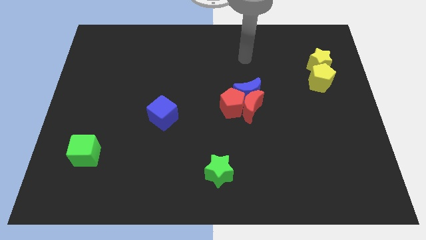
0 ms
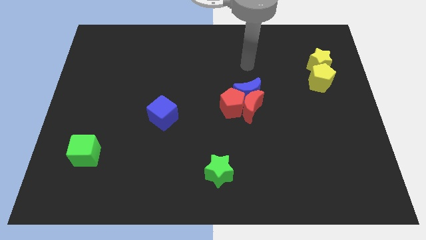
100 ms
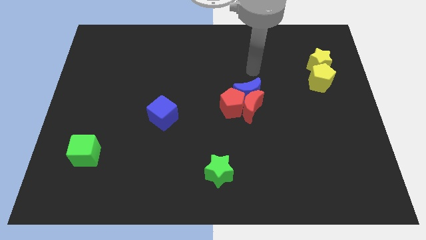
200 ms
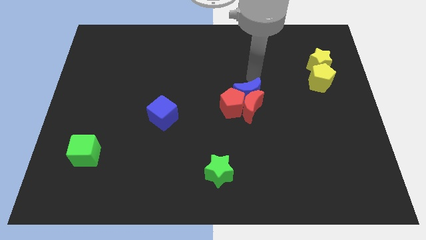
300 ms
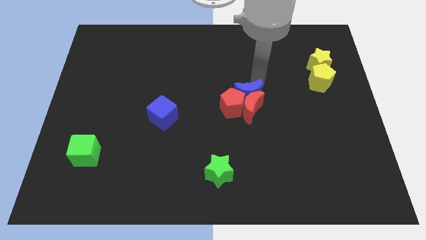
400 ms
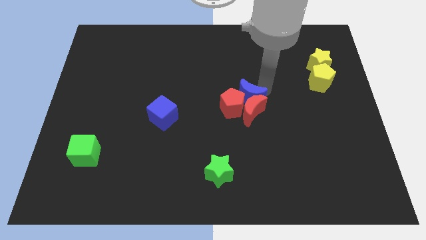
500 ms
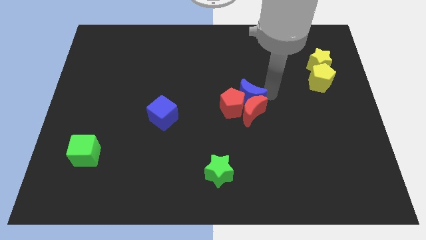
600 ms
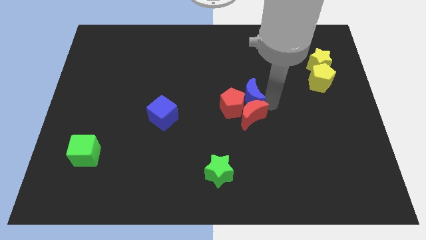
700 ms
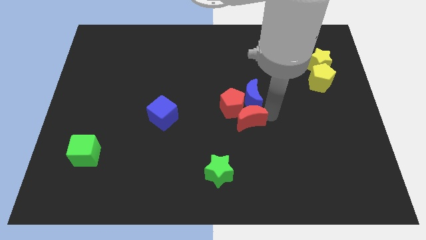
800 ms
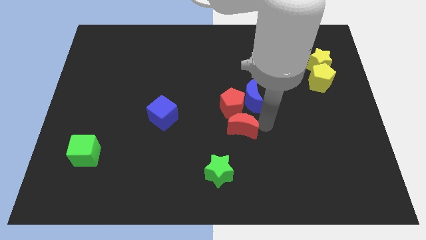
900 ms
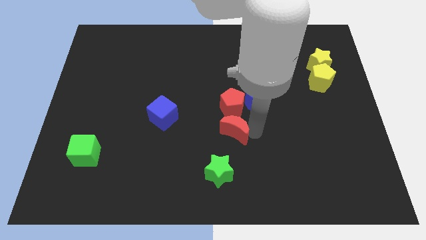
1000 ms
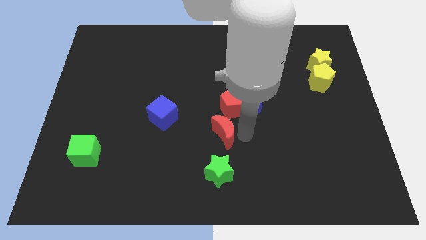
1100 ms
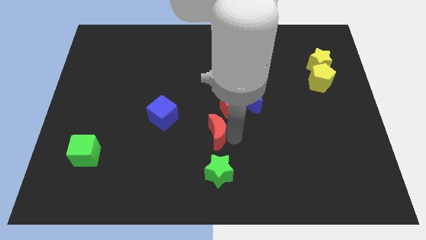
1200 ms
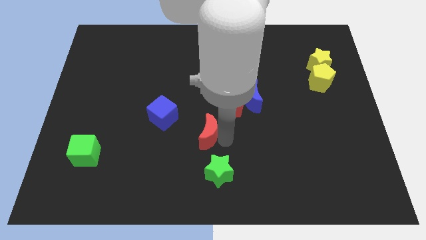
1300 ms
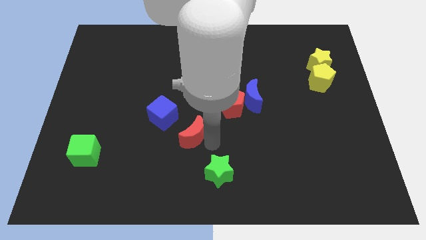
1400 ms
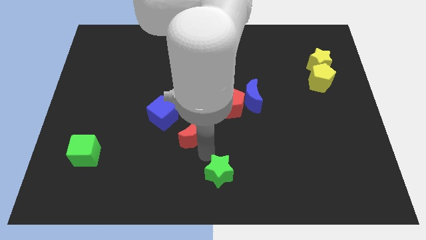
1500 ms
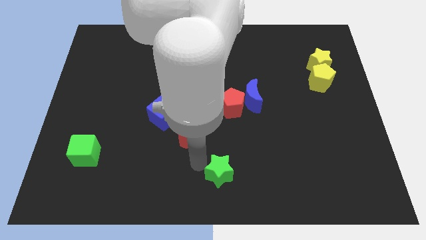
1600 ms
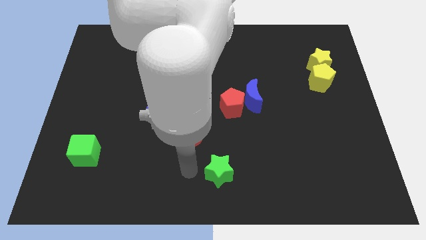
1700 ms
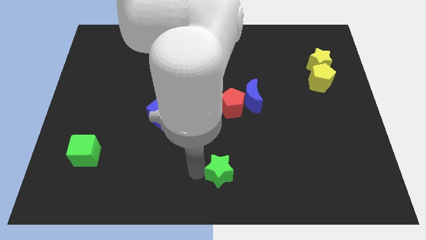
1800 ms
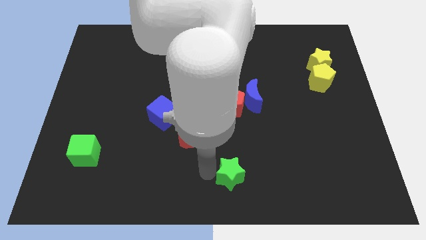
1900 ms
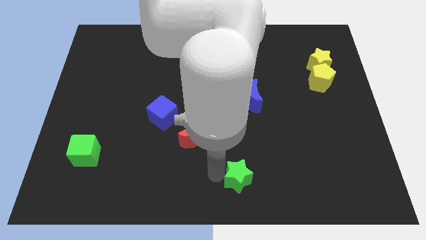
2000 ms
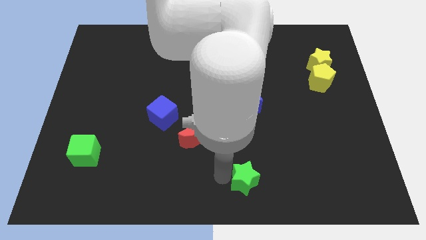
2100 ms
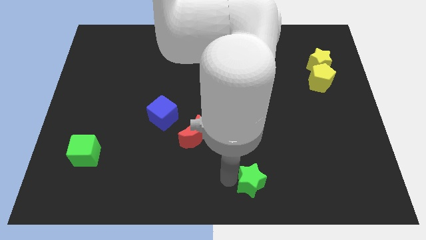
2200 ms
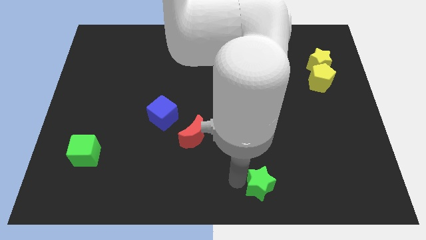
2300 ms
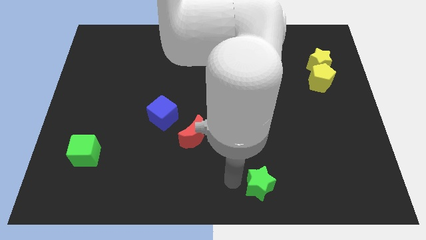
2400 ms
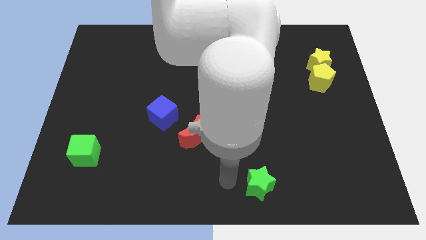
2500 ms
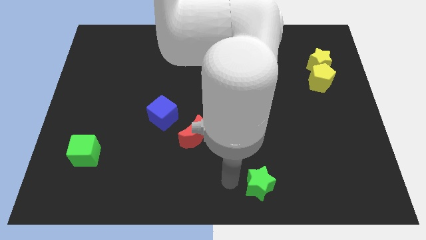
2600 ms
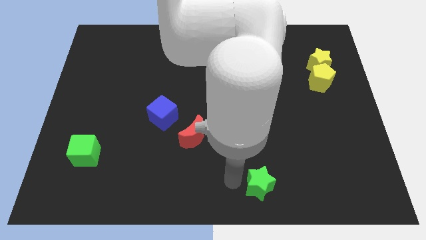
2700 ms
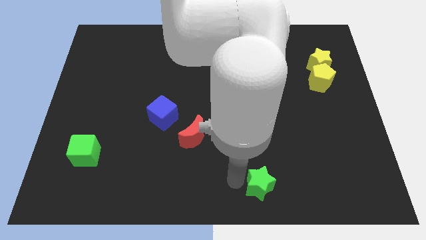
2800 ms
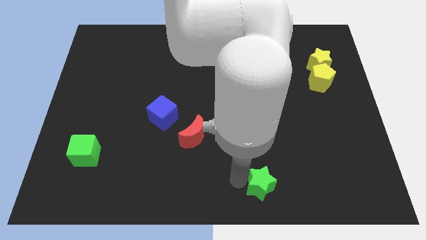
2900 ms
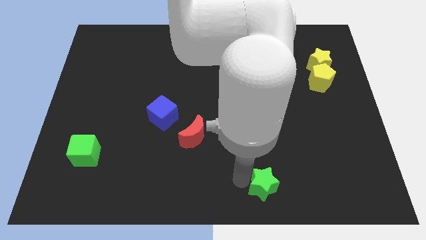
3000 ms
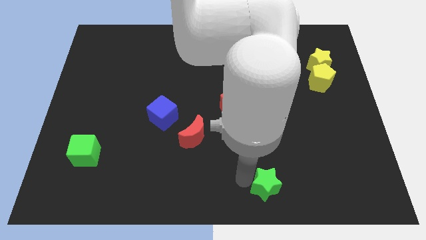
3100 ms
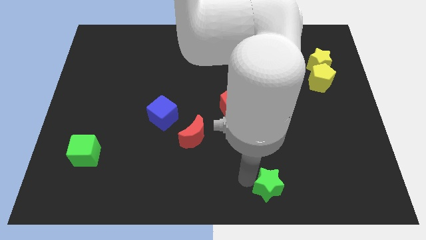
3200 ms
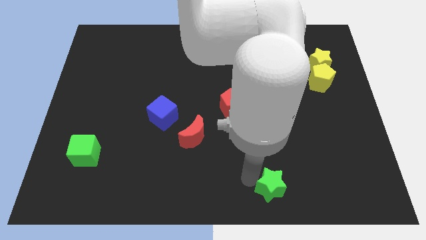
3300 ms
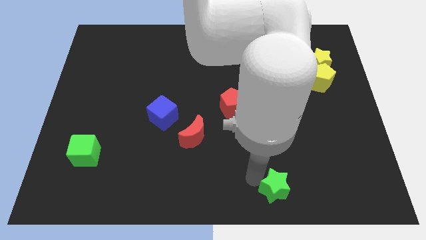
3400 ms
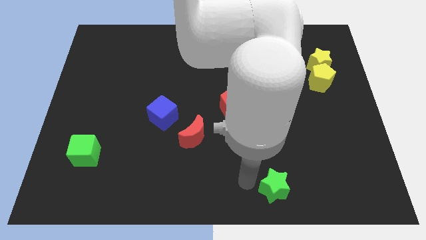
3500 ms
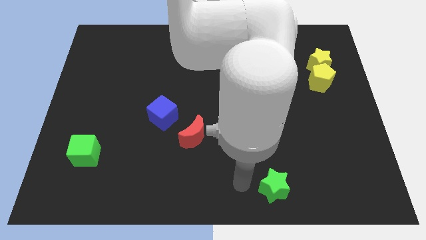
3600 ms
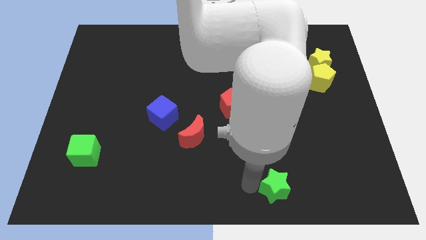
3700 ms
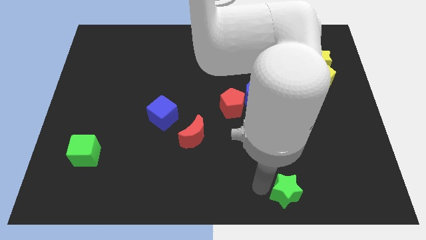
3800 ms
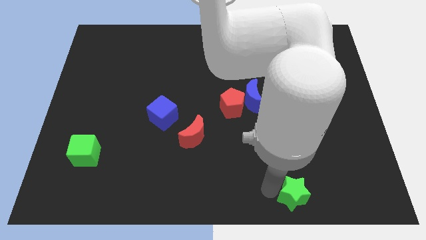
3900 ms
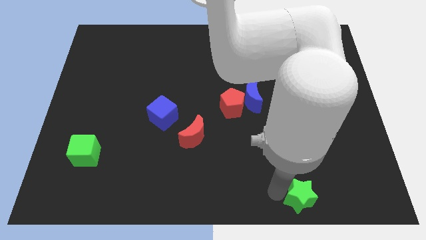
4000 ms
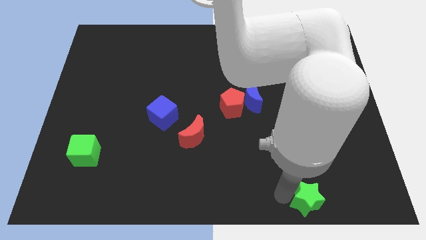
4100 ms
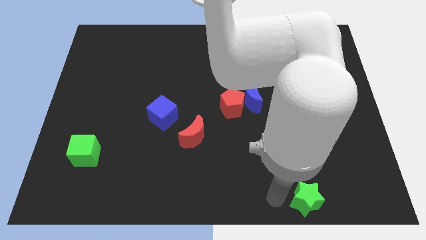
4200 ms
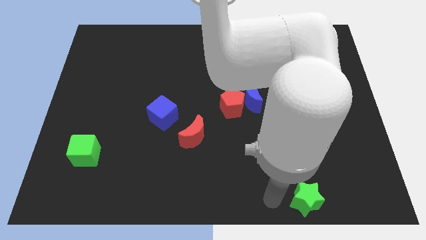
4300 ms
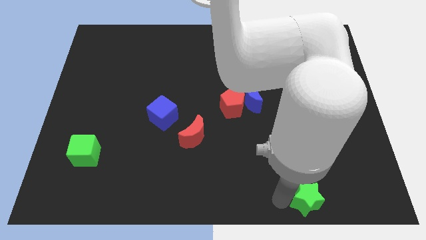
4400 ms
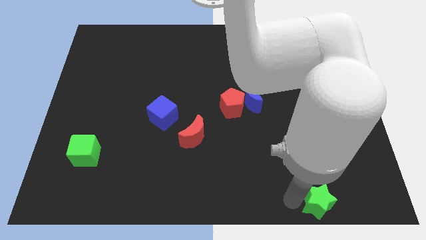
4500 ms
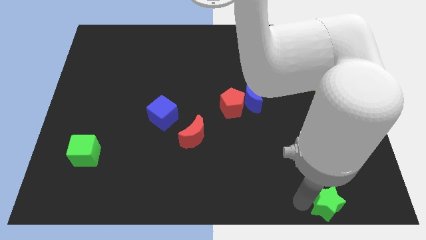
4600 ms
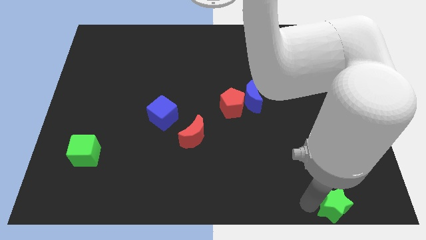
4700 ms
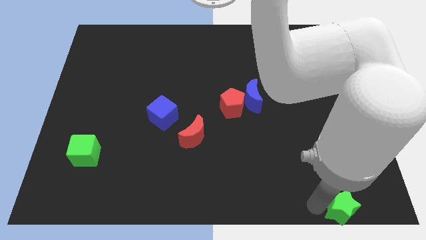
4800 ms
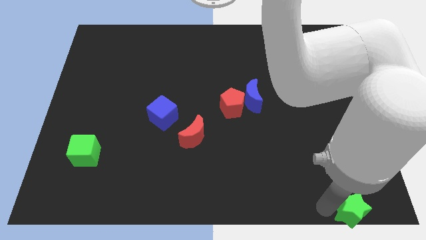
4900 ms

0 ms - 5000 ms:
push the green star to the lower right corner

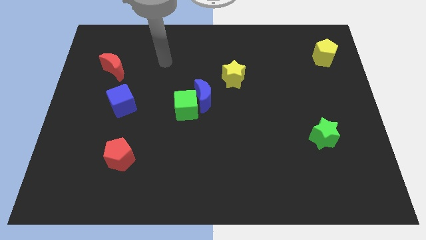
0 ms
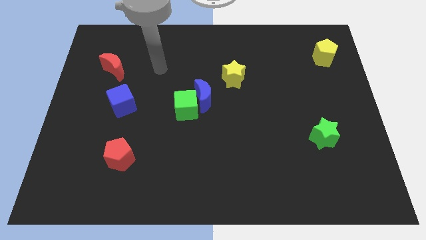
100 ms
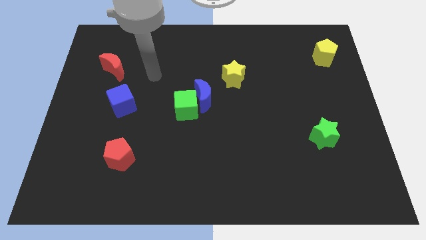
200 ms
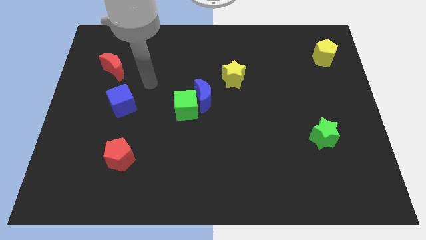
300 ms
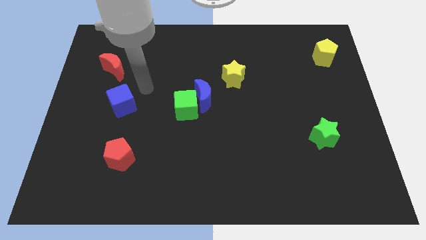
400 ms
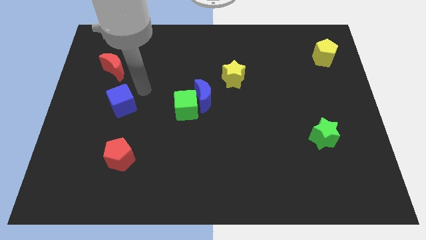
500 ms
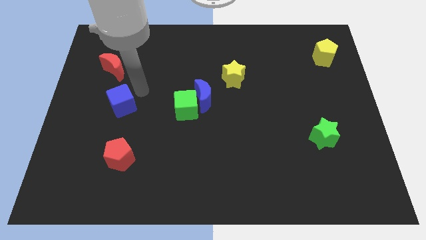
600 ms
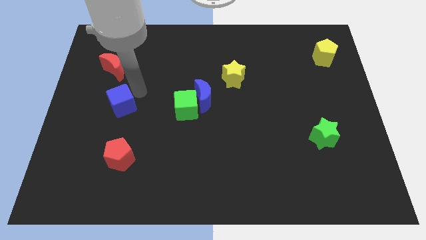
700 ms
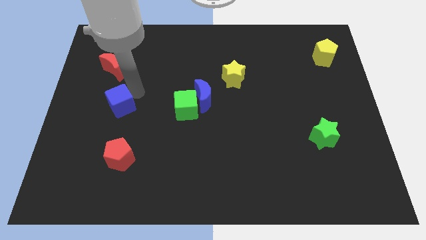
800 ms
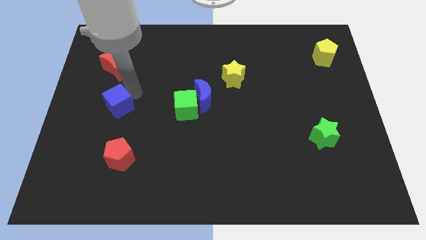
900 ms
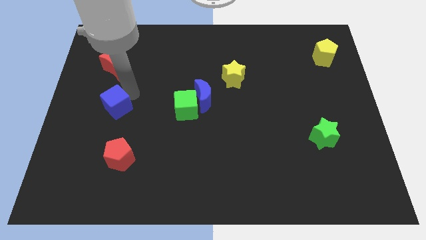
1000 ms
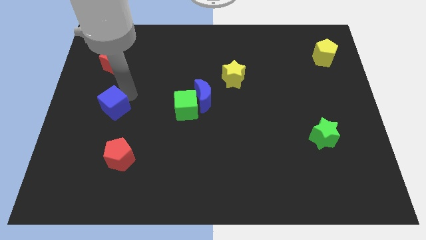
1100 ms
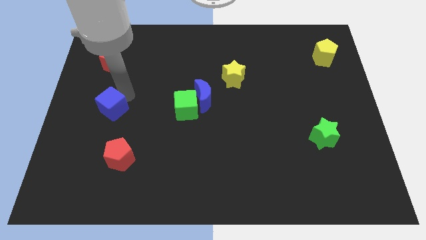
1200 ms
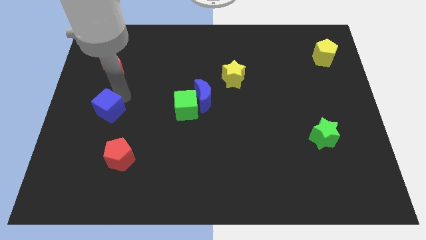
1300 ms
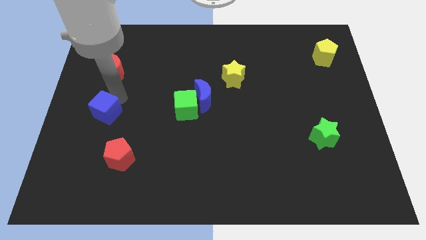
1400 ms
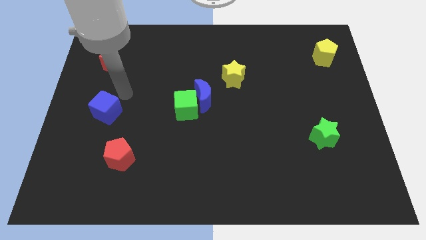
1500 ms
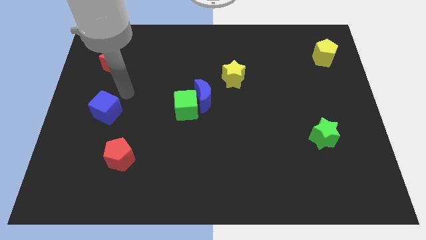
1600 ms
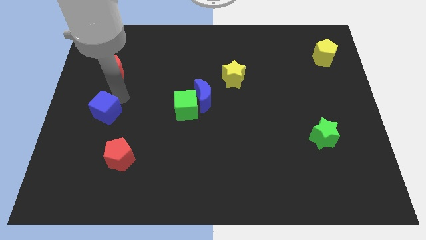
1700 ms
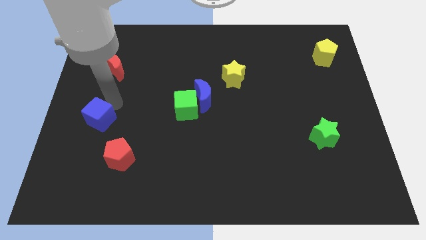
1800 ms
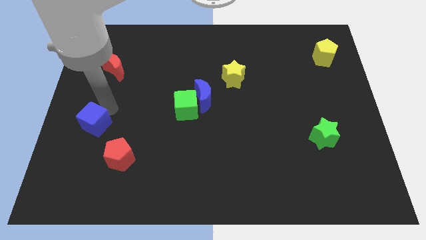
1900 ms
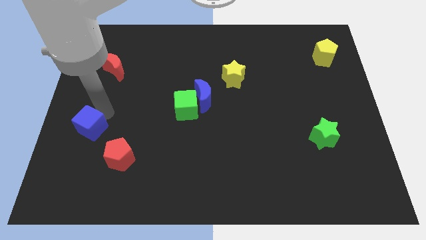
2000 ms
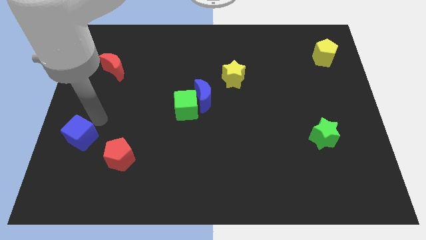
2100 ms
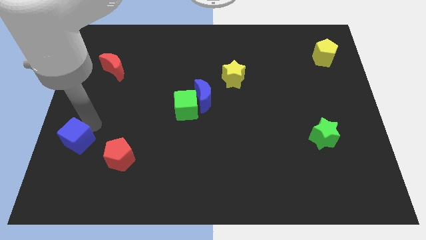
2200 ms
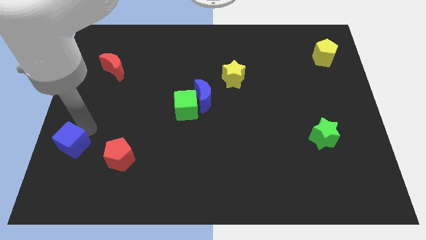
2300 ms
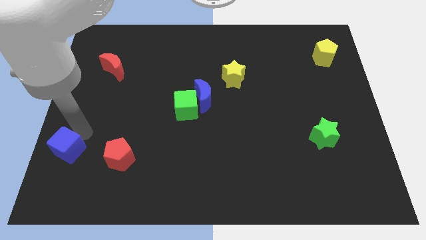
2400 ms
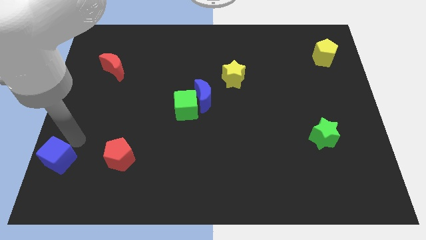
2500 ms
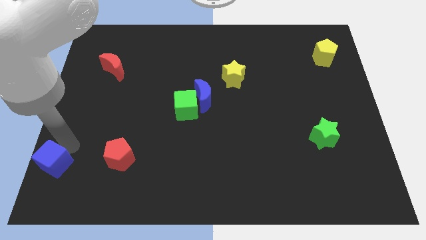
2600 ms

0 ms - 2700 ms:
push the blue cube to the bottom left

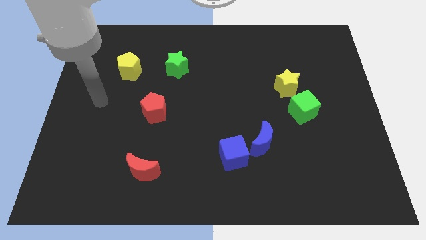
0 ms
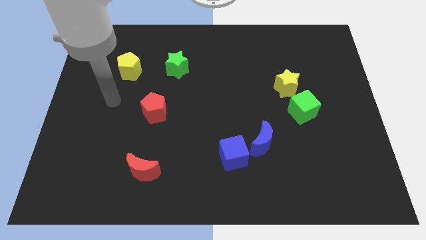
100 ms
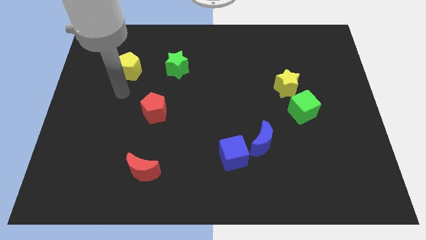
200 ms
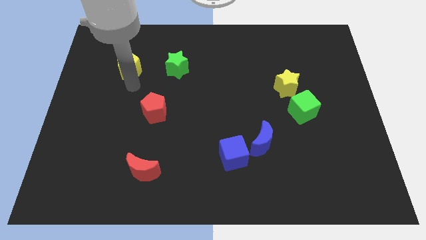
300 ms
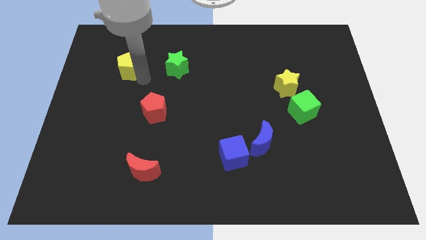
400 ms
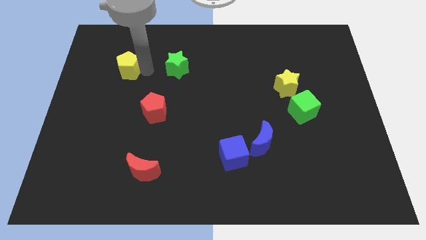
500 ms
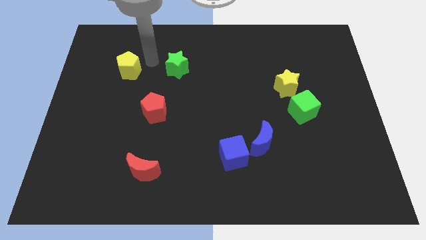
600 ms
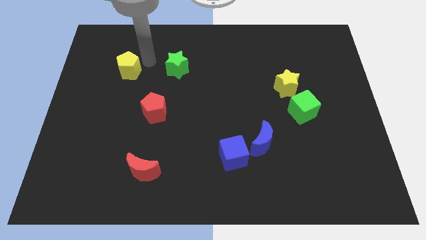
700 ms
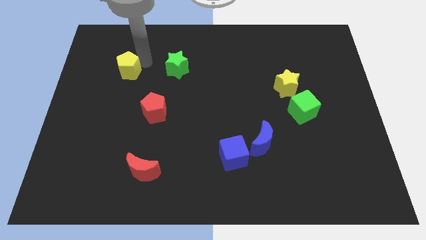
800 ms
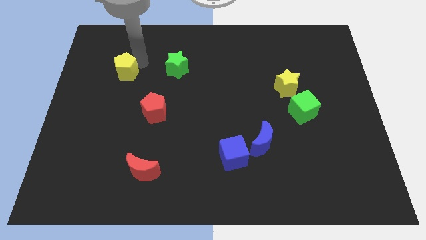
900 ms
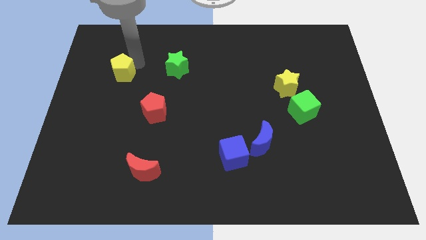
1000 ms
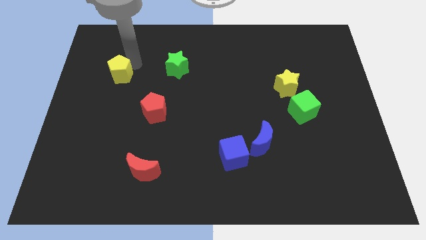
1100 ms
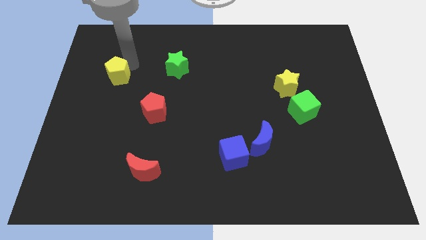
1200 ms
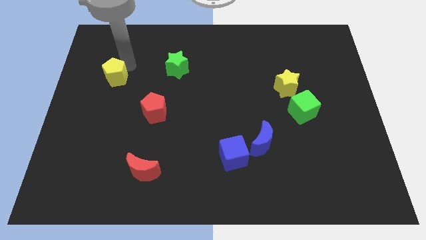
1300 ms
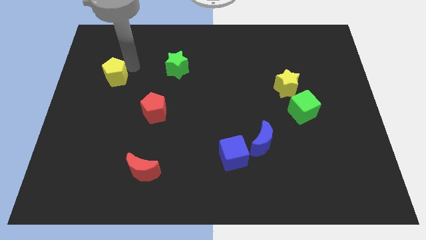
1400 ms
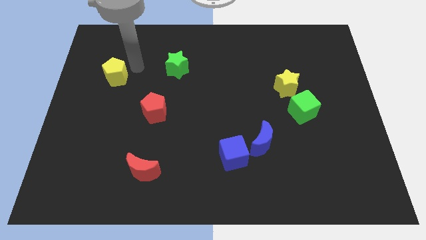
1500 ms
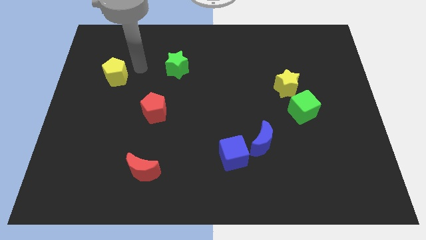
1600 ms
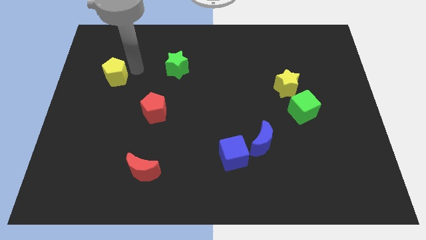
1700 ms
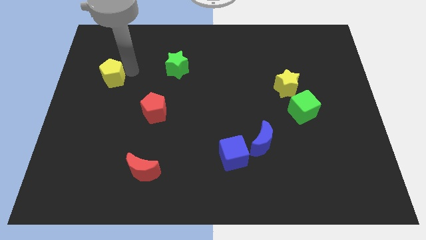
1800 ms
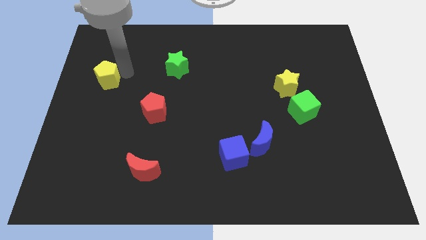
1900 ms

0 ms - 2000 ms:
slide the yellow pentagon to the left side
